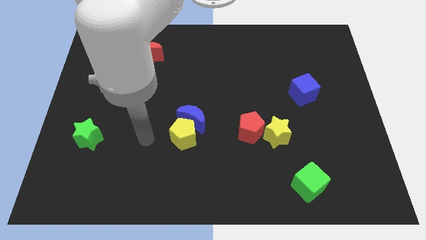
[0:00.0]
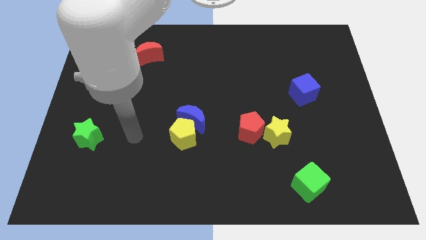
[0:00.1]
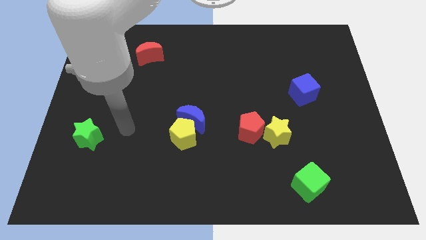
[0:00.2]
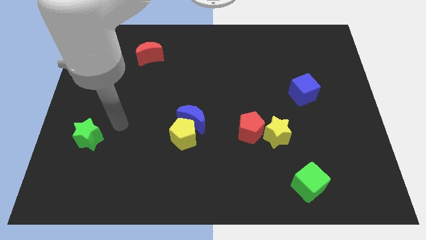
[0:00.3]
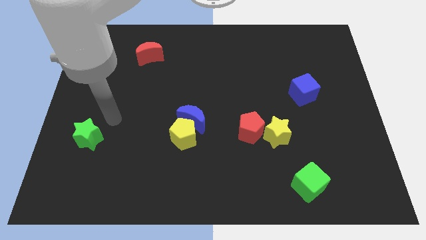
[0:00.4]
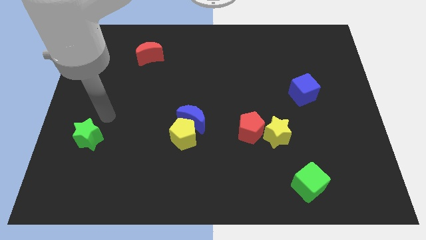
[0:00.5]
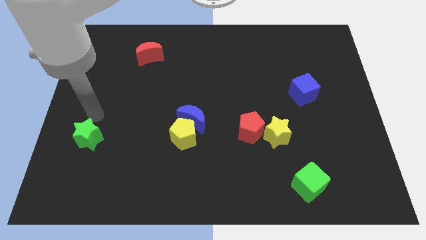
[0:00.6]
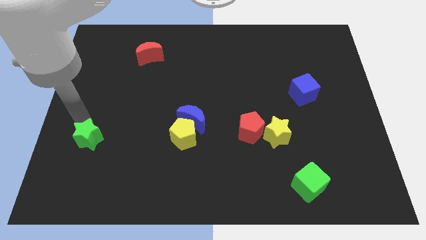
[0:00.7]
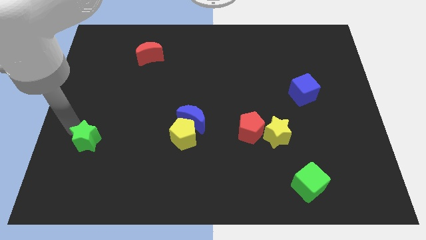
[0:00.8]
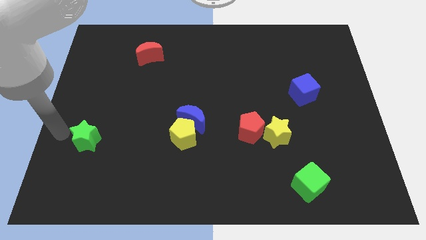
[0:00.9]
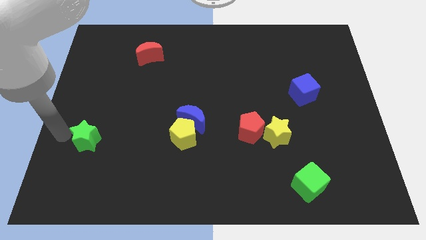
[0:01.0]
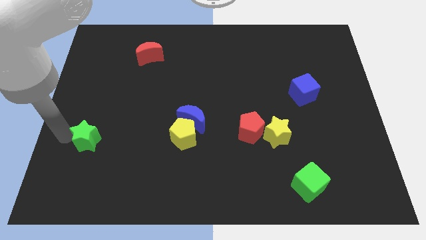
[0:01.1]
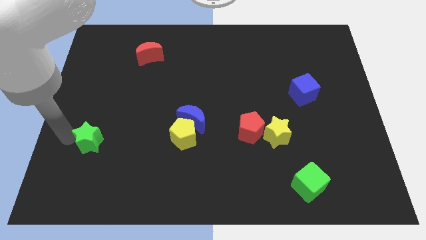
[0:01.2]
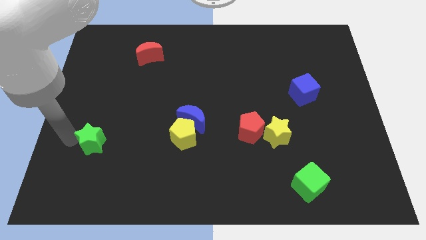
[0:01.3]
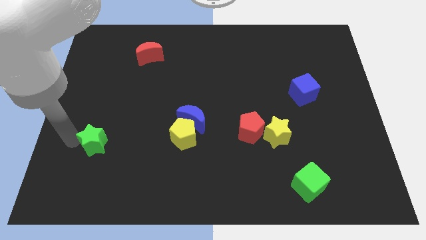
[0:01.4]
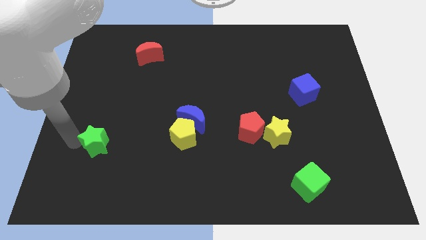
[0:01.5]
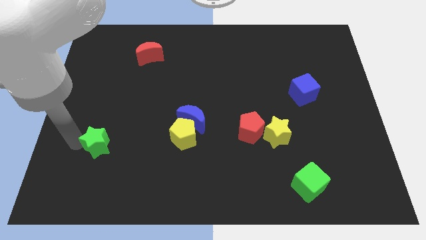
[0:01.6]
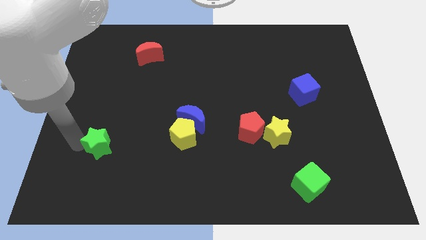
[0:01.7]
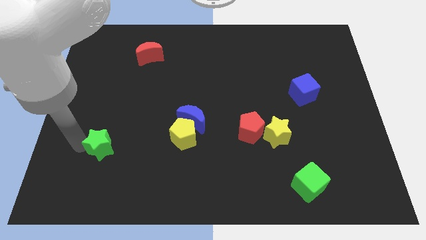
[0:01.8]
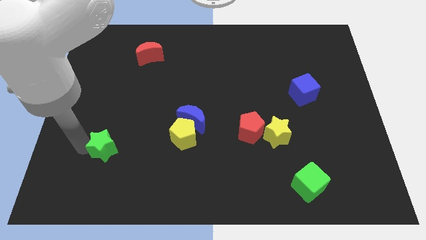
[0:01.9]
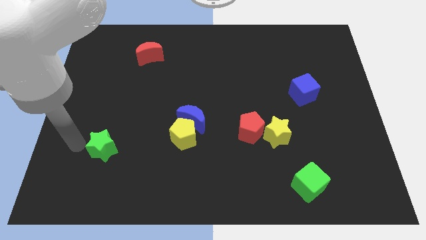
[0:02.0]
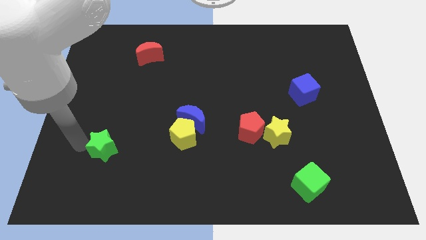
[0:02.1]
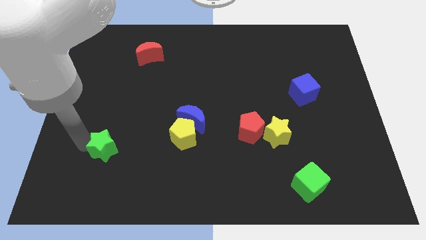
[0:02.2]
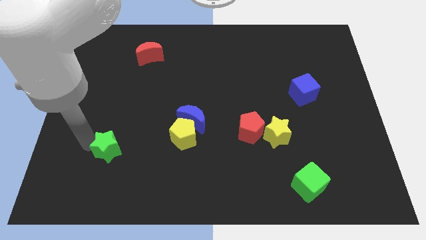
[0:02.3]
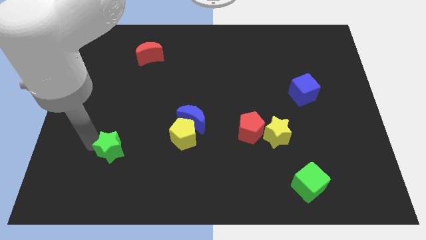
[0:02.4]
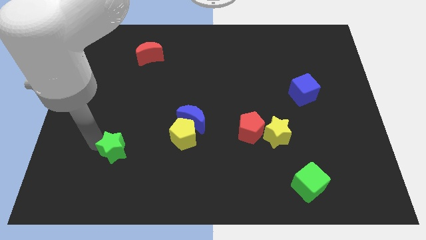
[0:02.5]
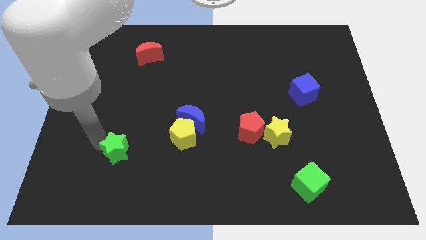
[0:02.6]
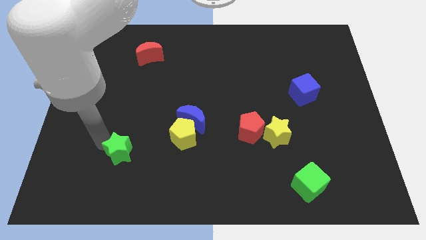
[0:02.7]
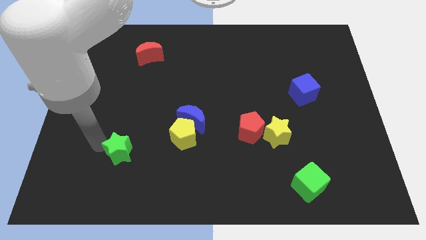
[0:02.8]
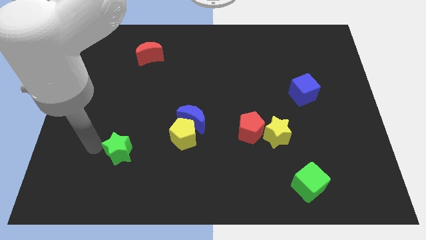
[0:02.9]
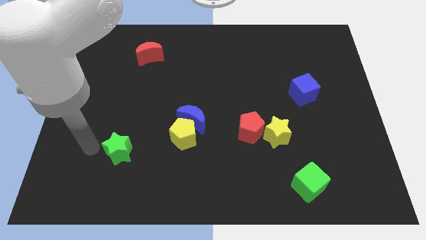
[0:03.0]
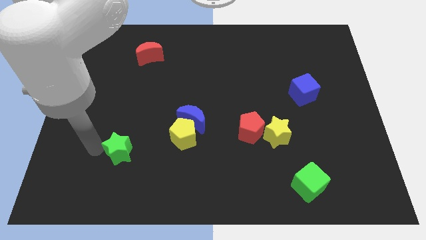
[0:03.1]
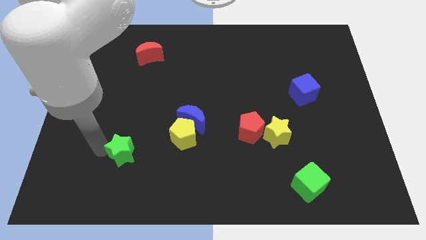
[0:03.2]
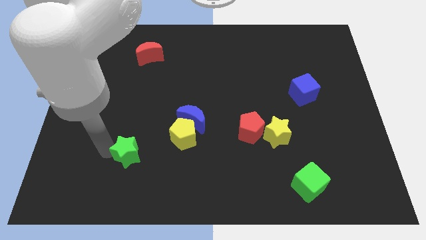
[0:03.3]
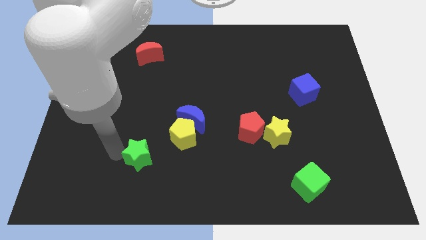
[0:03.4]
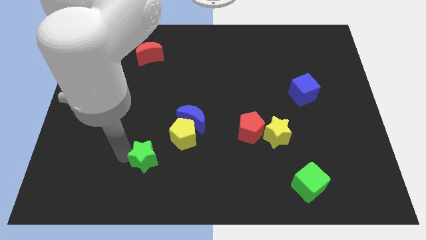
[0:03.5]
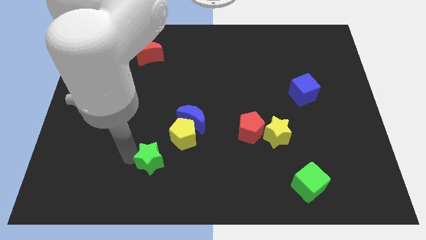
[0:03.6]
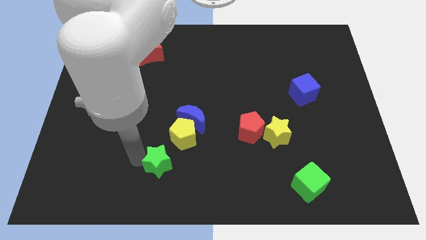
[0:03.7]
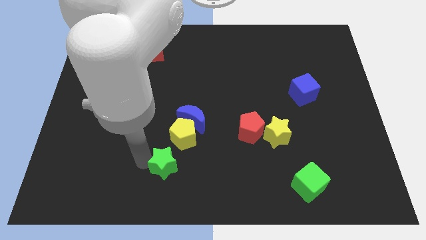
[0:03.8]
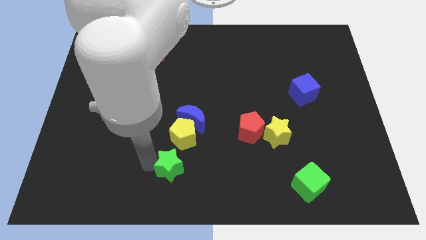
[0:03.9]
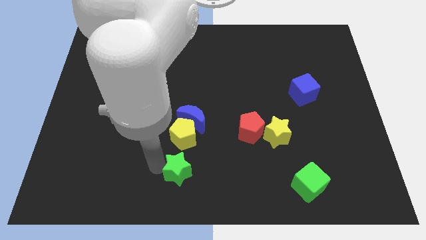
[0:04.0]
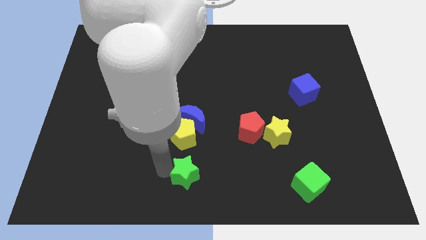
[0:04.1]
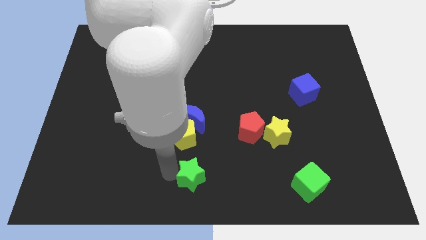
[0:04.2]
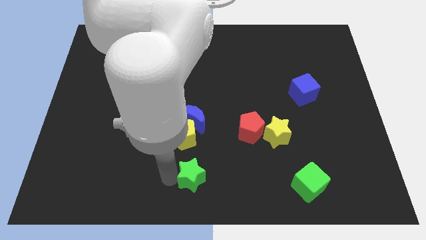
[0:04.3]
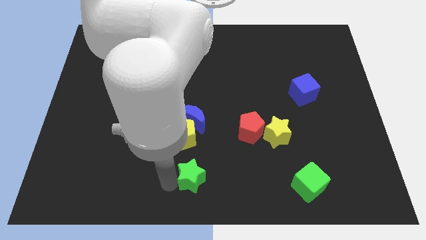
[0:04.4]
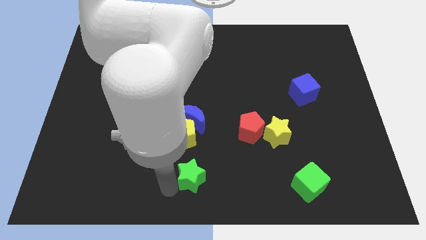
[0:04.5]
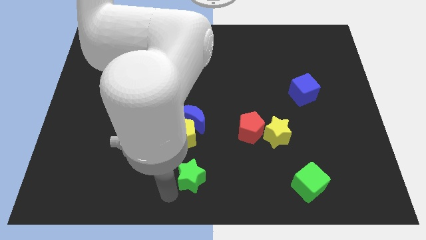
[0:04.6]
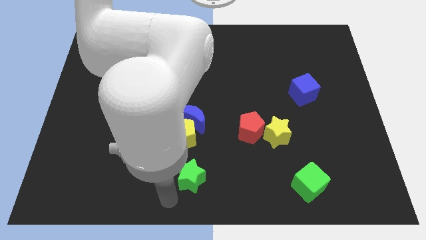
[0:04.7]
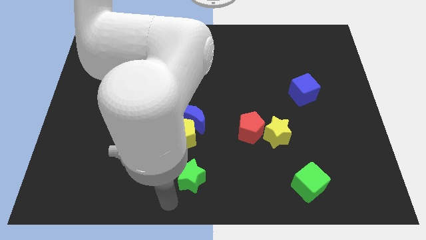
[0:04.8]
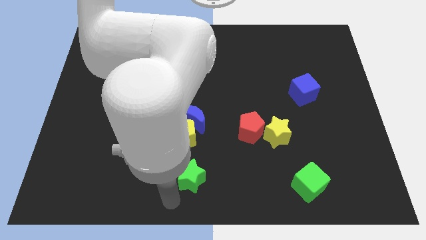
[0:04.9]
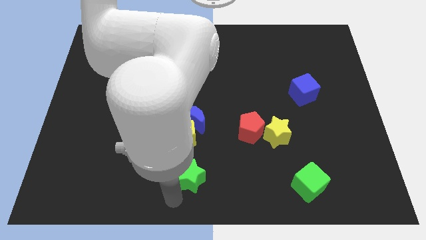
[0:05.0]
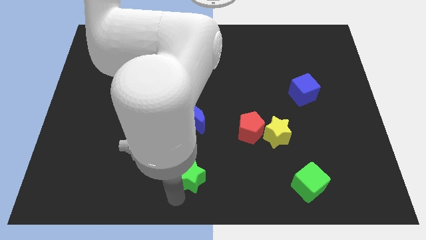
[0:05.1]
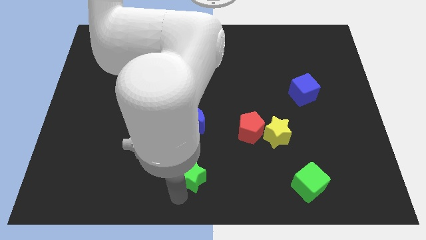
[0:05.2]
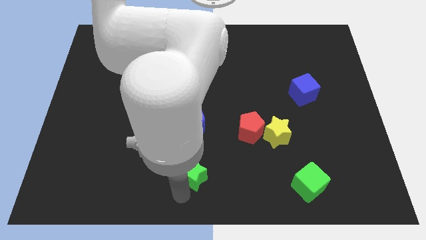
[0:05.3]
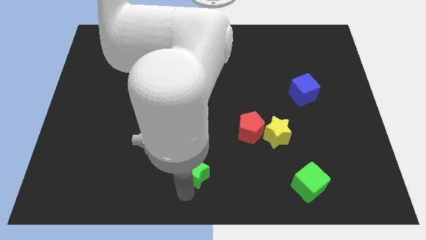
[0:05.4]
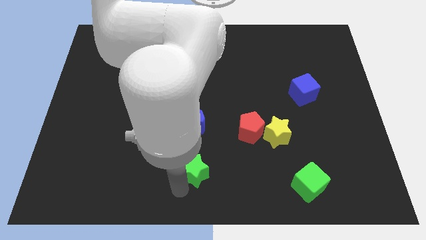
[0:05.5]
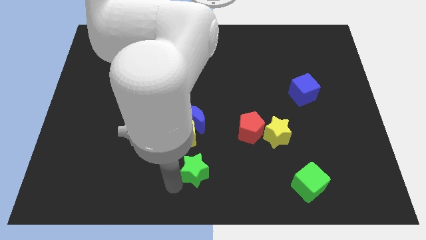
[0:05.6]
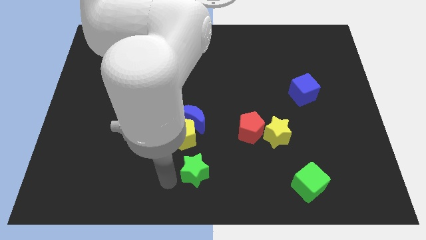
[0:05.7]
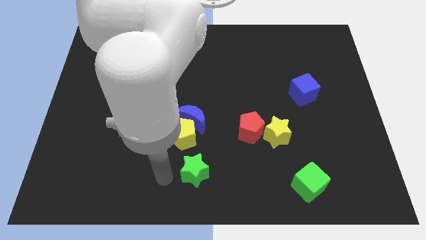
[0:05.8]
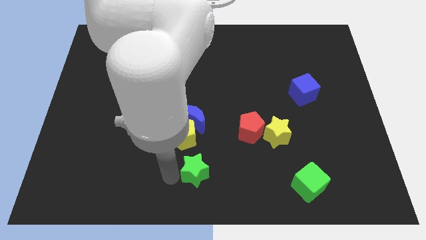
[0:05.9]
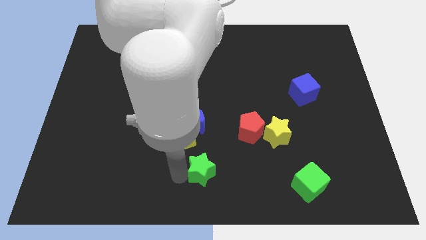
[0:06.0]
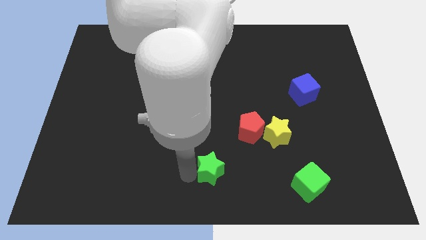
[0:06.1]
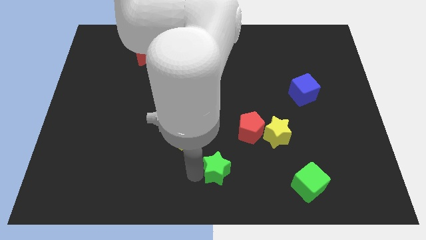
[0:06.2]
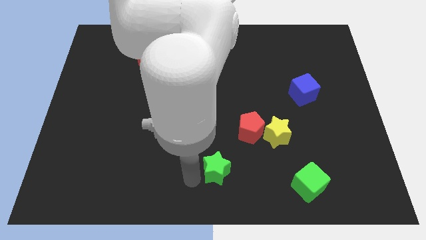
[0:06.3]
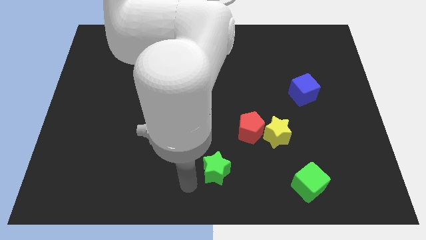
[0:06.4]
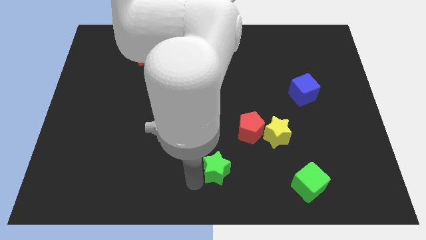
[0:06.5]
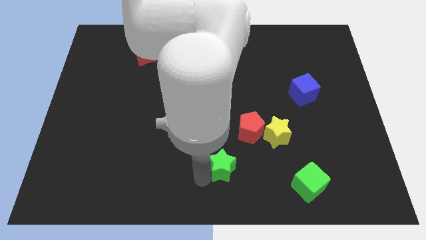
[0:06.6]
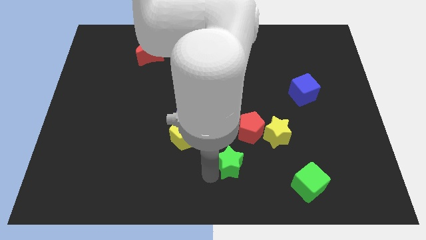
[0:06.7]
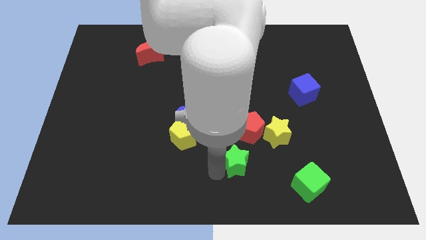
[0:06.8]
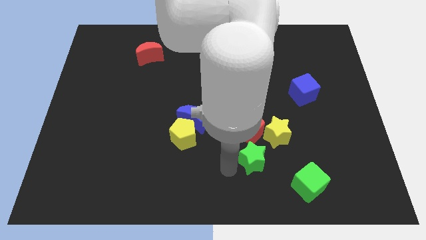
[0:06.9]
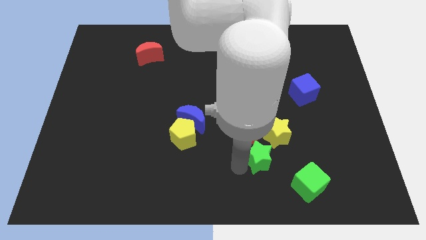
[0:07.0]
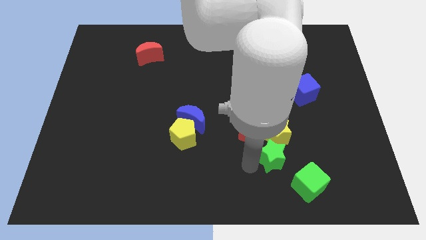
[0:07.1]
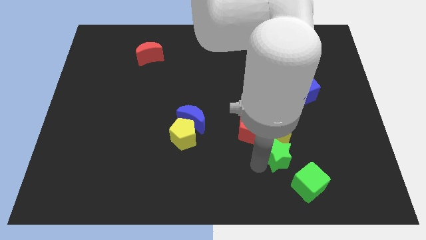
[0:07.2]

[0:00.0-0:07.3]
put the green star to the yellow star
